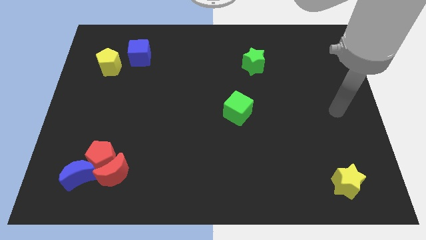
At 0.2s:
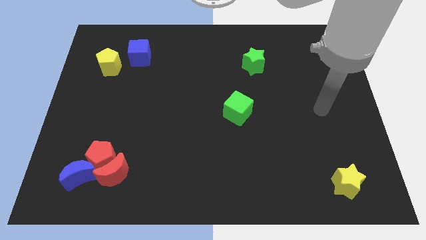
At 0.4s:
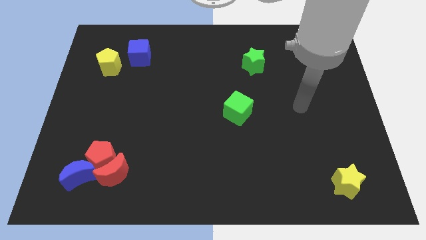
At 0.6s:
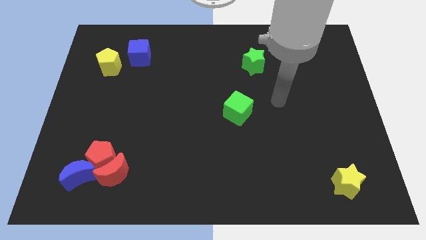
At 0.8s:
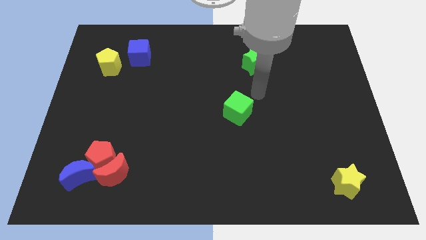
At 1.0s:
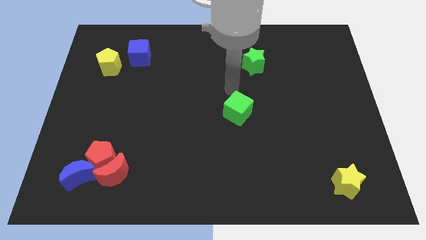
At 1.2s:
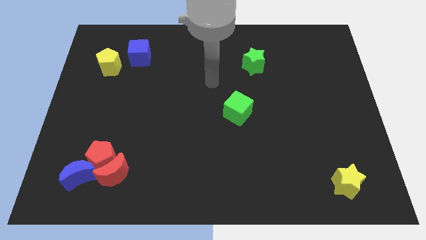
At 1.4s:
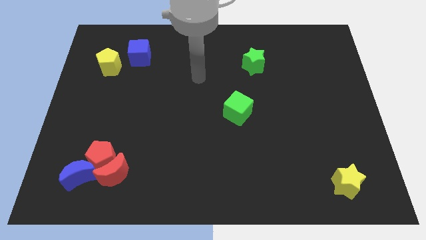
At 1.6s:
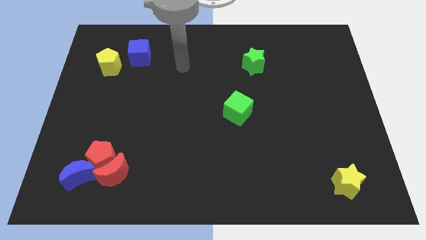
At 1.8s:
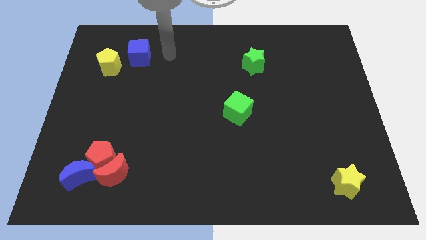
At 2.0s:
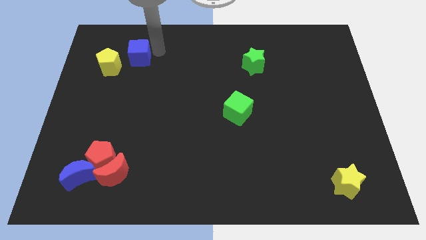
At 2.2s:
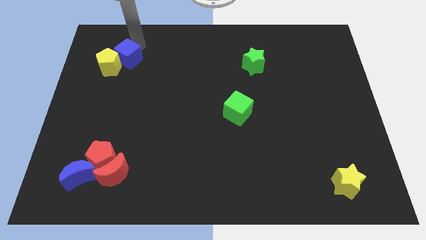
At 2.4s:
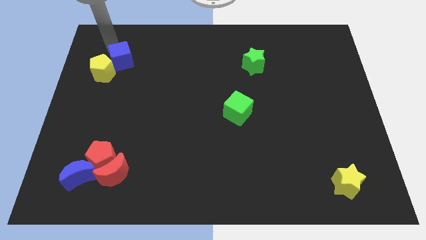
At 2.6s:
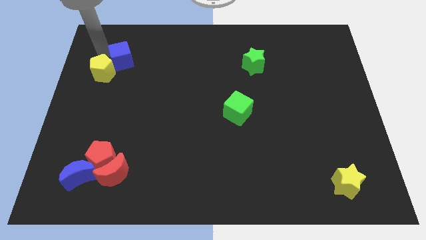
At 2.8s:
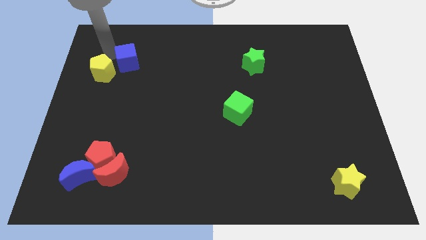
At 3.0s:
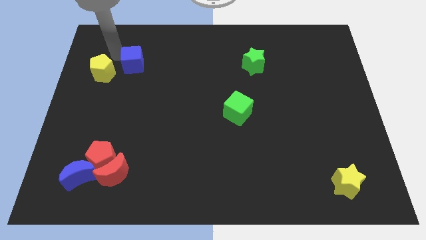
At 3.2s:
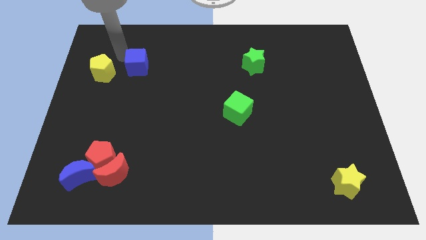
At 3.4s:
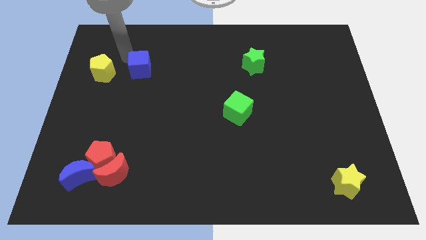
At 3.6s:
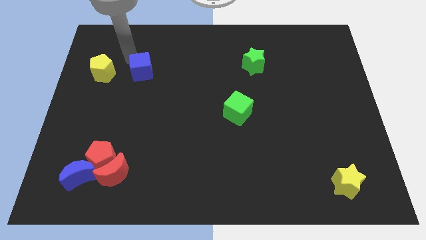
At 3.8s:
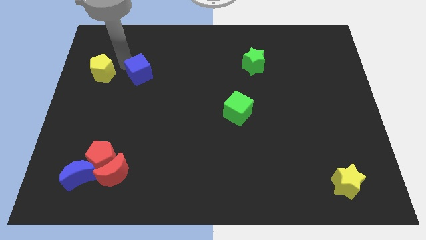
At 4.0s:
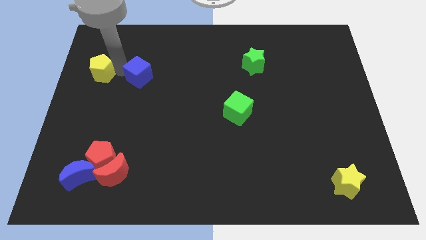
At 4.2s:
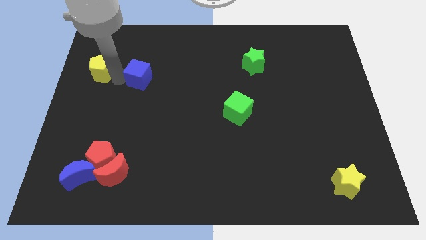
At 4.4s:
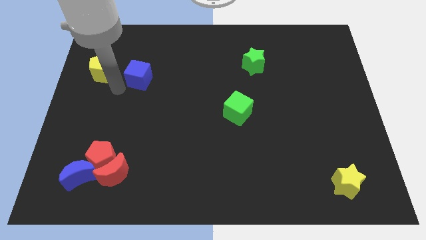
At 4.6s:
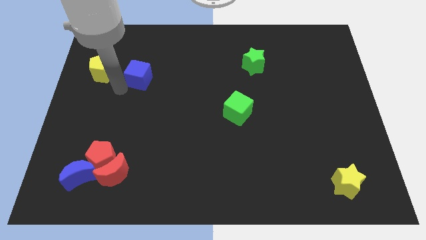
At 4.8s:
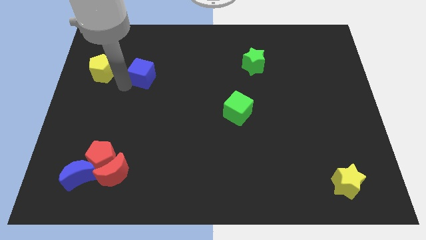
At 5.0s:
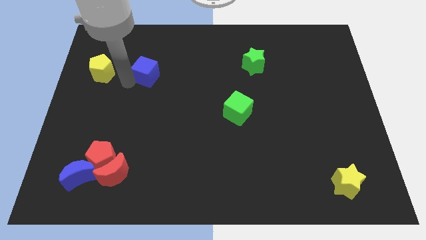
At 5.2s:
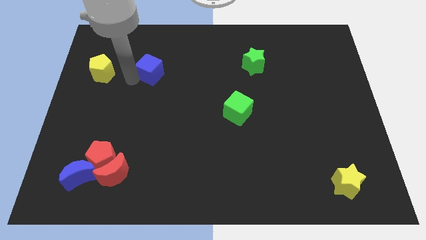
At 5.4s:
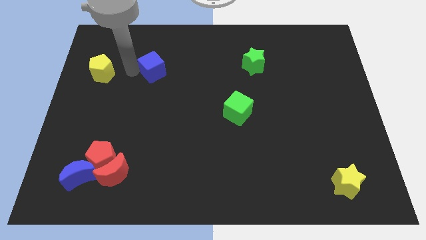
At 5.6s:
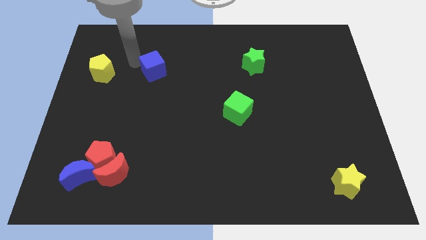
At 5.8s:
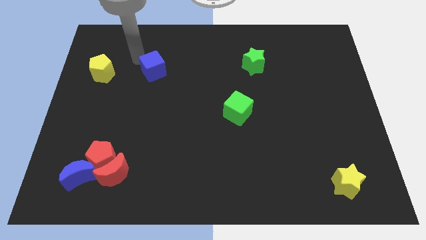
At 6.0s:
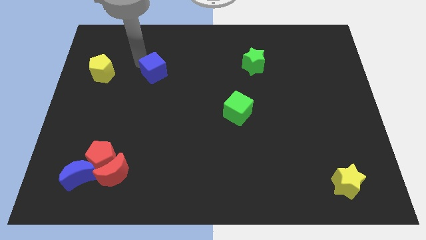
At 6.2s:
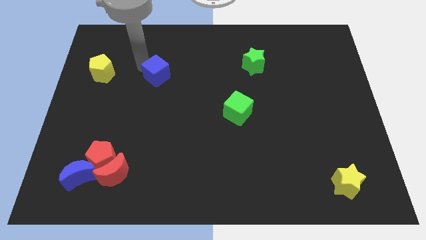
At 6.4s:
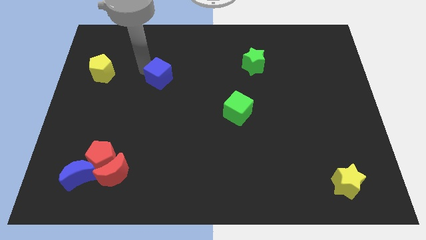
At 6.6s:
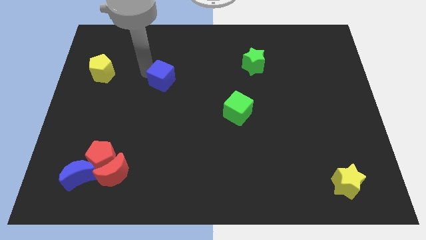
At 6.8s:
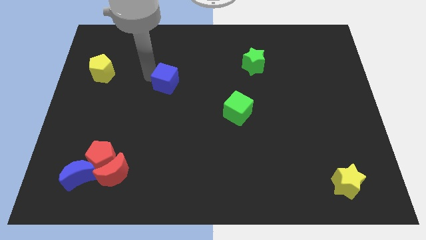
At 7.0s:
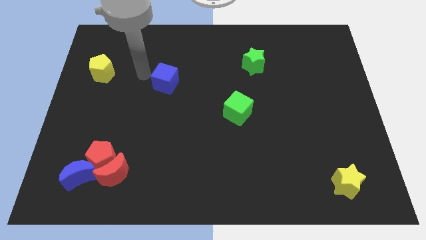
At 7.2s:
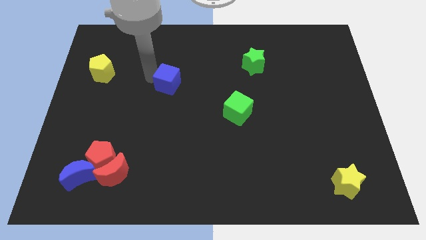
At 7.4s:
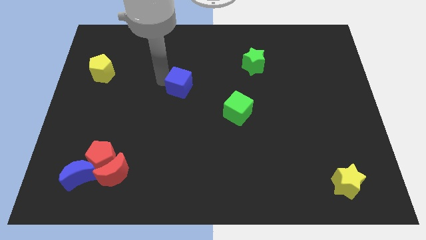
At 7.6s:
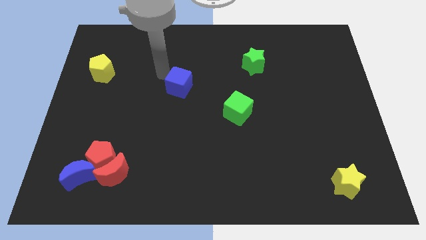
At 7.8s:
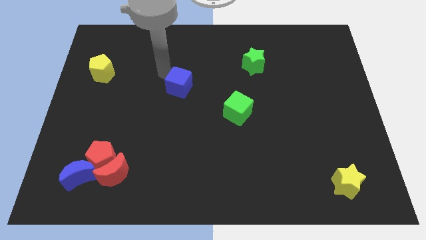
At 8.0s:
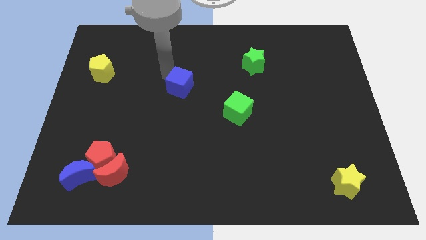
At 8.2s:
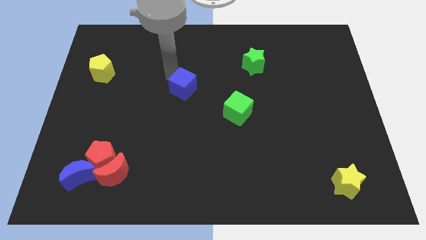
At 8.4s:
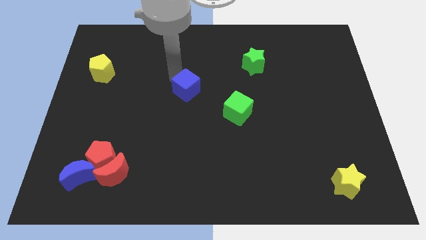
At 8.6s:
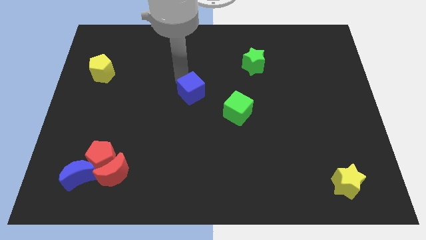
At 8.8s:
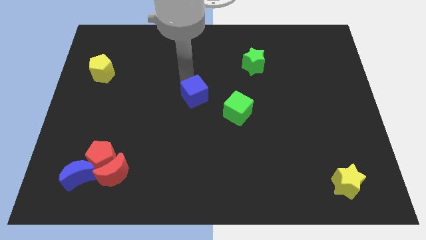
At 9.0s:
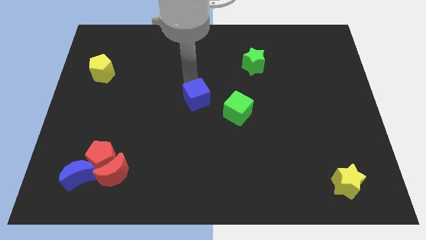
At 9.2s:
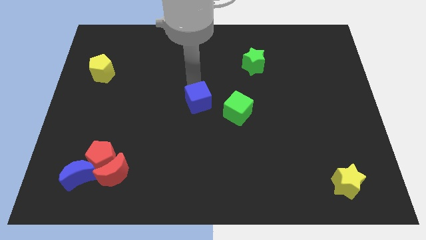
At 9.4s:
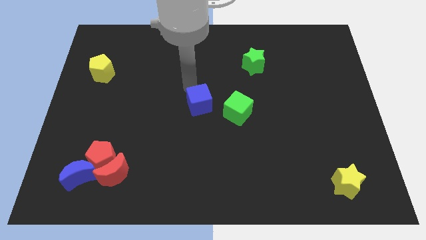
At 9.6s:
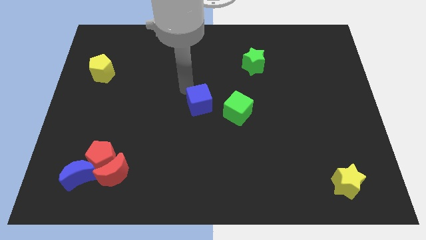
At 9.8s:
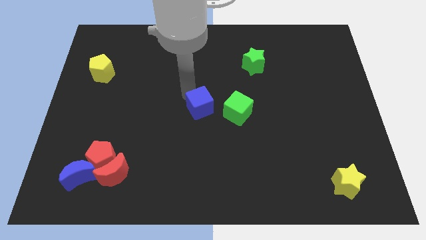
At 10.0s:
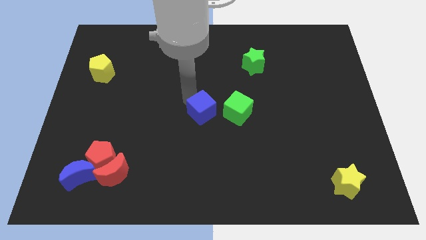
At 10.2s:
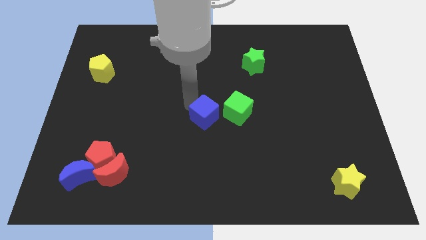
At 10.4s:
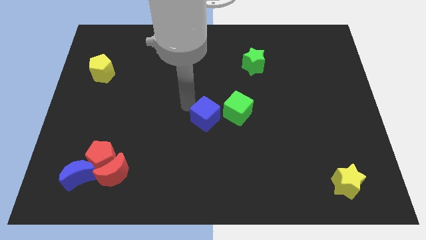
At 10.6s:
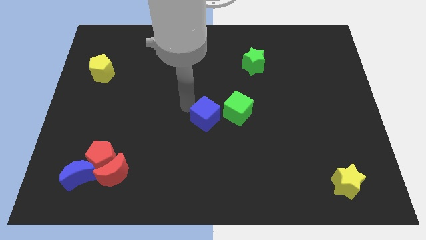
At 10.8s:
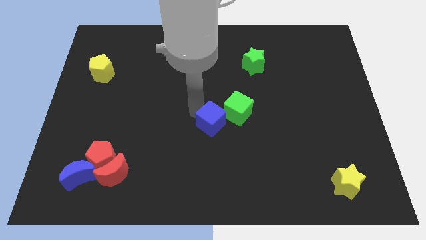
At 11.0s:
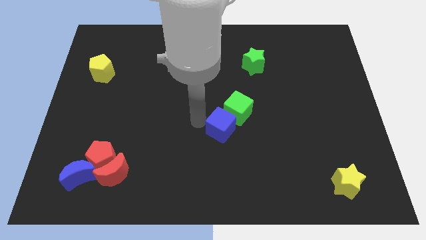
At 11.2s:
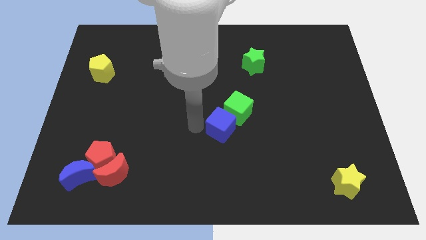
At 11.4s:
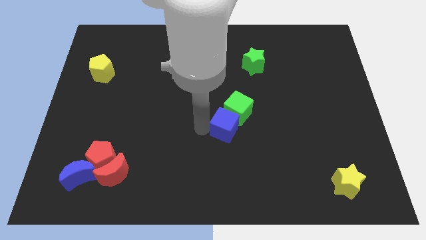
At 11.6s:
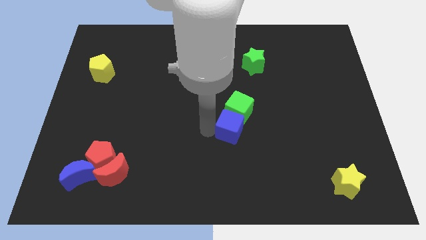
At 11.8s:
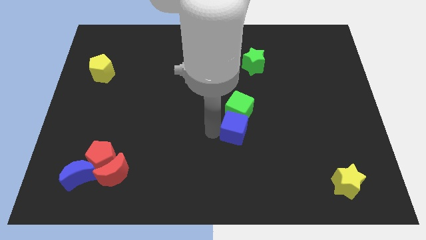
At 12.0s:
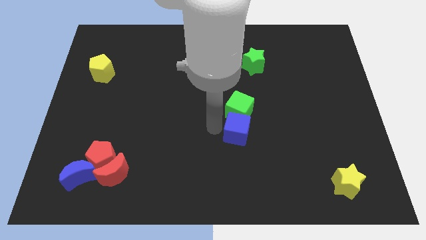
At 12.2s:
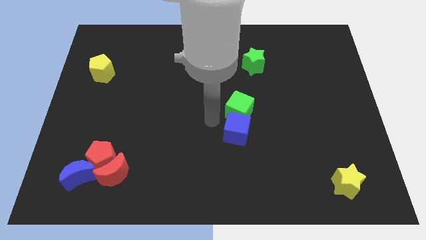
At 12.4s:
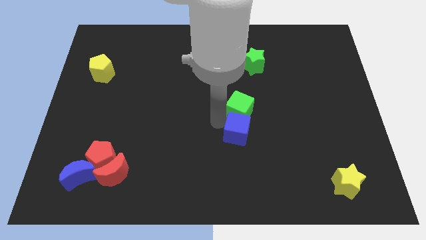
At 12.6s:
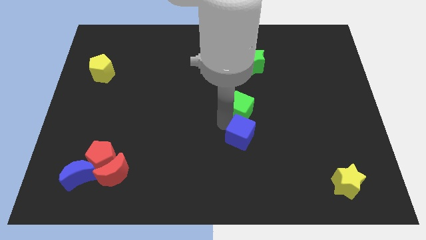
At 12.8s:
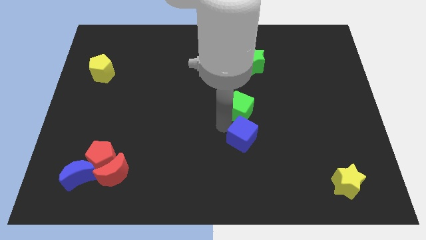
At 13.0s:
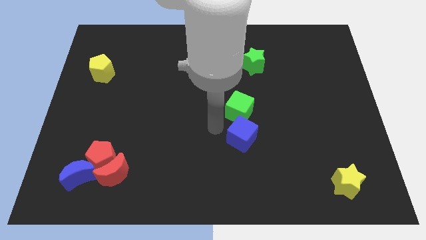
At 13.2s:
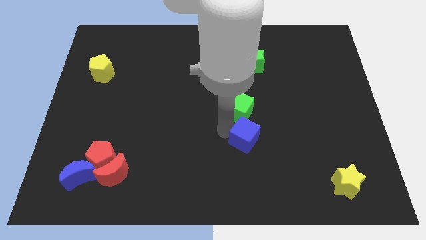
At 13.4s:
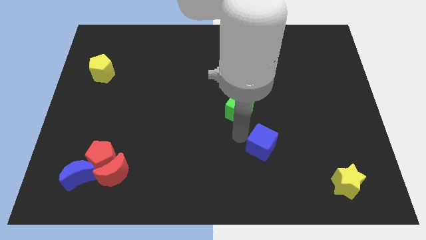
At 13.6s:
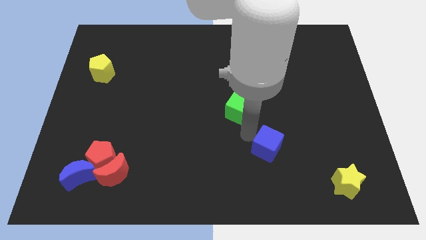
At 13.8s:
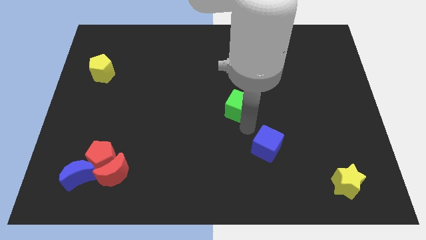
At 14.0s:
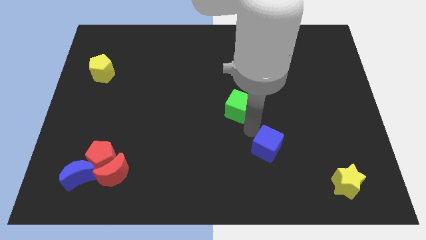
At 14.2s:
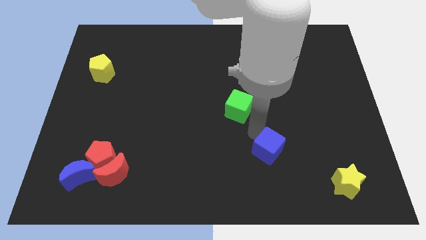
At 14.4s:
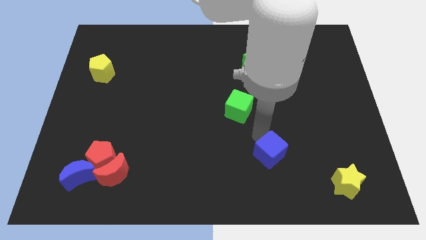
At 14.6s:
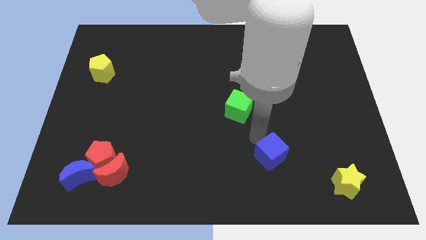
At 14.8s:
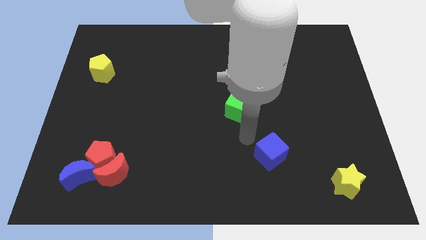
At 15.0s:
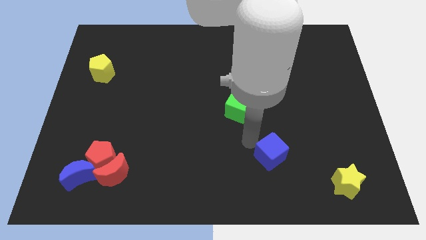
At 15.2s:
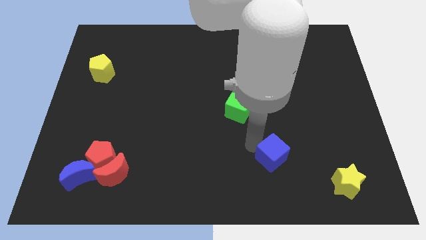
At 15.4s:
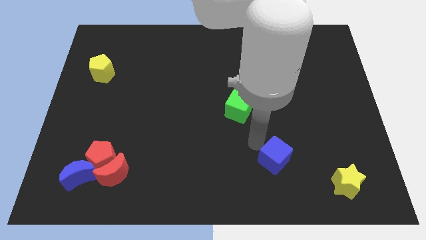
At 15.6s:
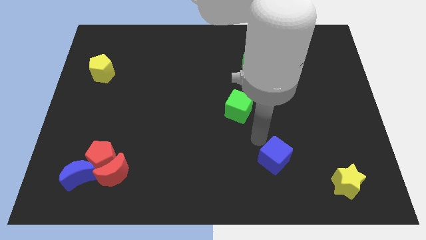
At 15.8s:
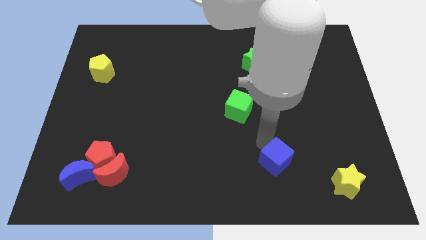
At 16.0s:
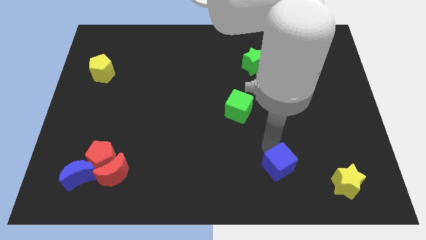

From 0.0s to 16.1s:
put the blue cube to the left of the yellow star

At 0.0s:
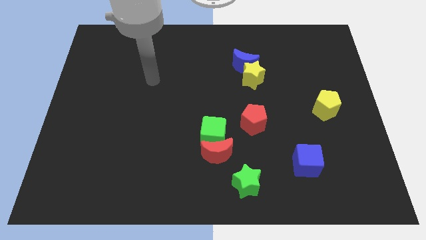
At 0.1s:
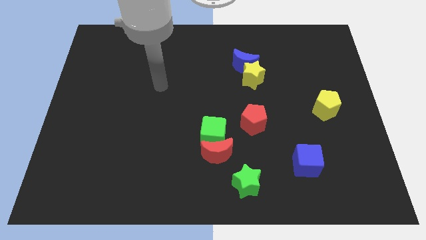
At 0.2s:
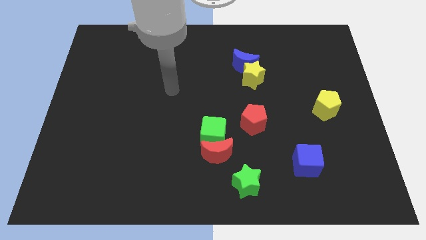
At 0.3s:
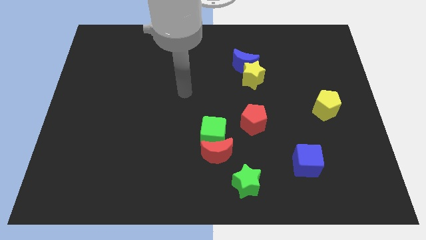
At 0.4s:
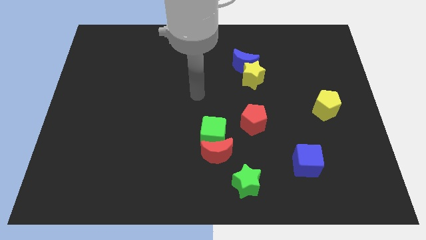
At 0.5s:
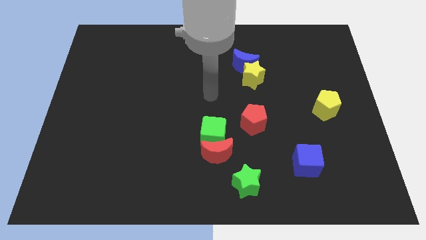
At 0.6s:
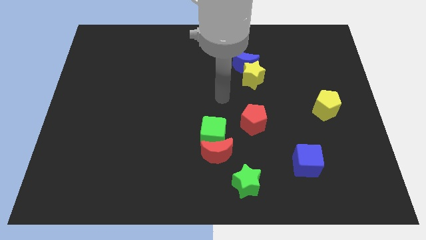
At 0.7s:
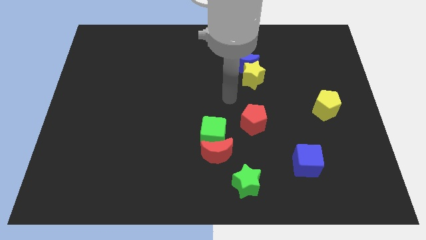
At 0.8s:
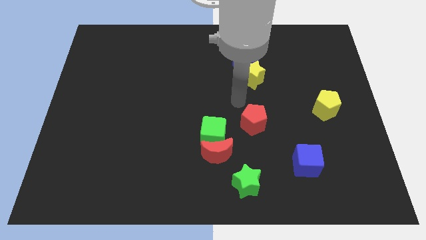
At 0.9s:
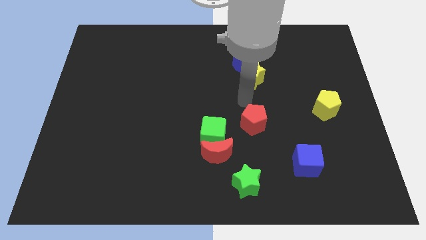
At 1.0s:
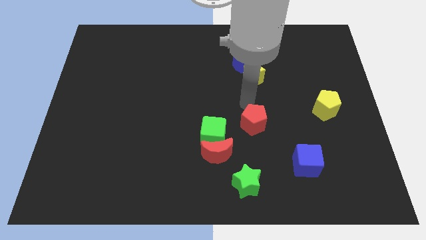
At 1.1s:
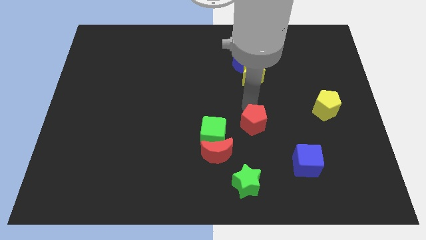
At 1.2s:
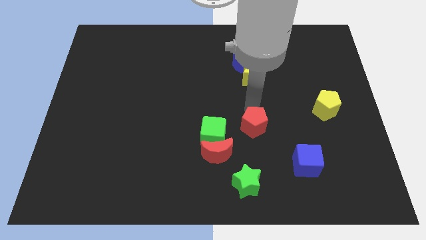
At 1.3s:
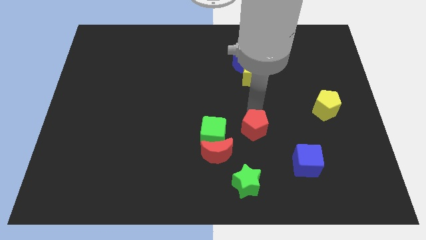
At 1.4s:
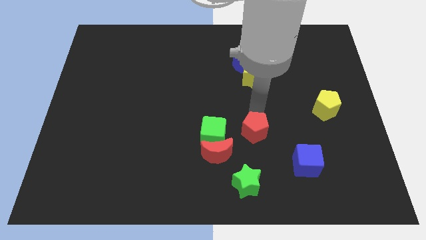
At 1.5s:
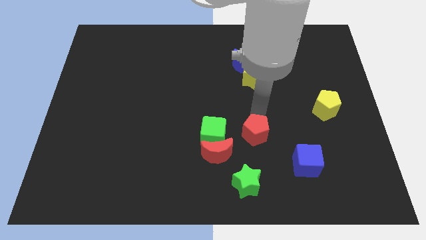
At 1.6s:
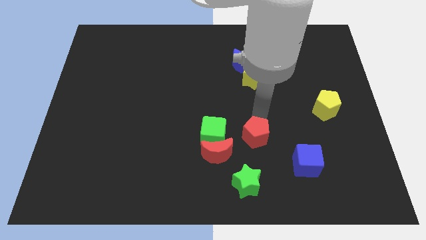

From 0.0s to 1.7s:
move the red pentagon to the right of the red moon
